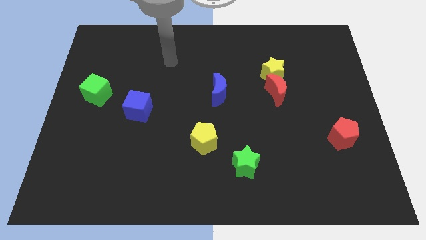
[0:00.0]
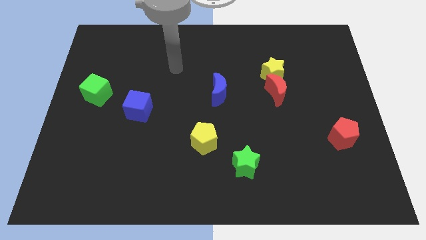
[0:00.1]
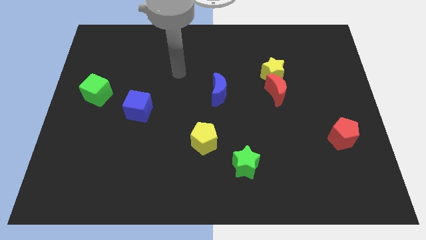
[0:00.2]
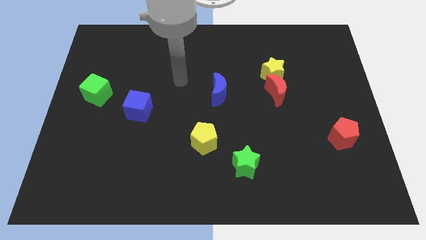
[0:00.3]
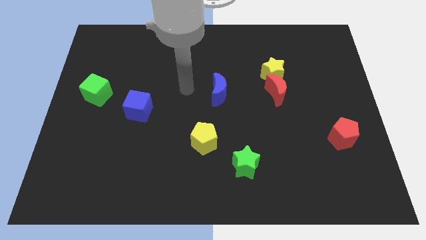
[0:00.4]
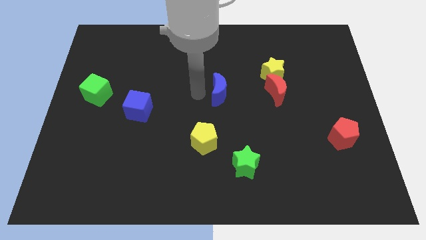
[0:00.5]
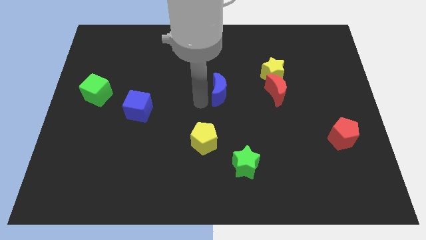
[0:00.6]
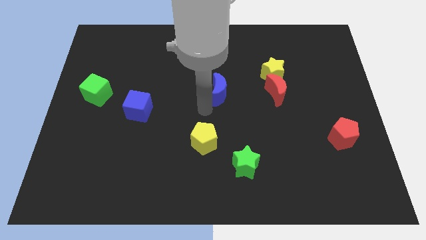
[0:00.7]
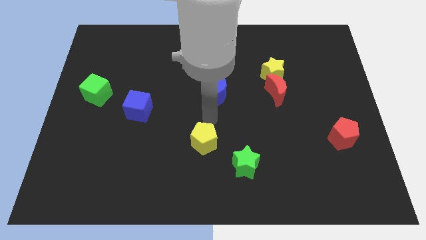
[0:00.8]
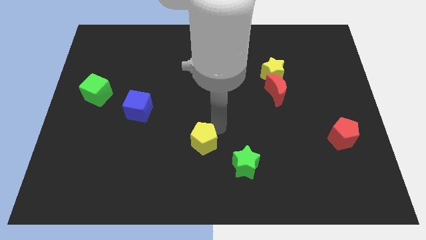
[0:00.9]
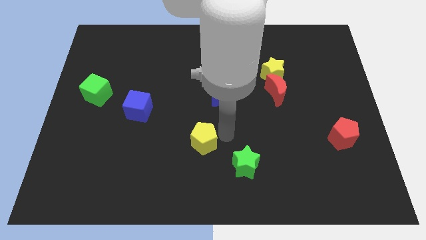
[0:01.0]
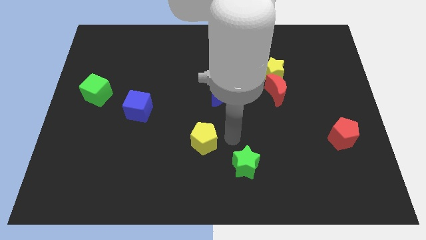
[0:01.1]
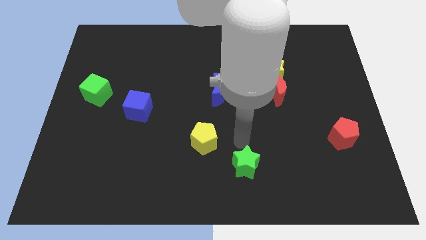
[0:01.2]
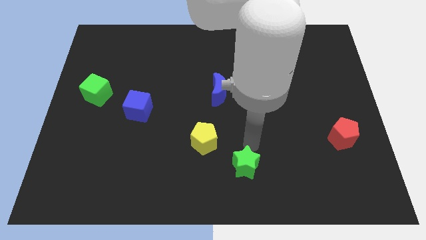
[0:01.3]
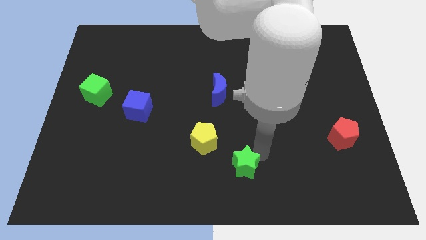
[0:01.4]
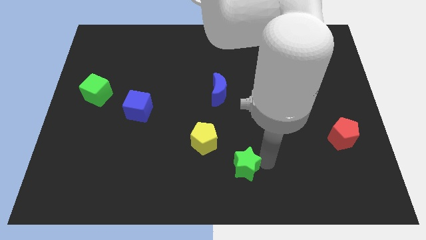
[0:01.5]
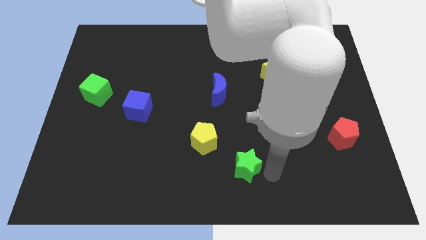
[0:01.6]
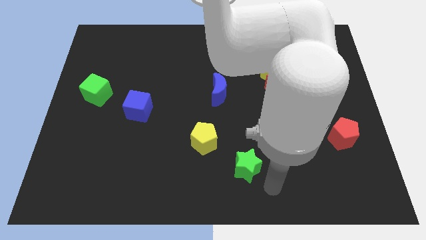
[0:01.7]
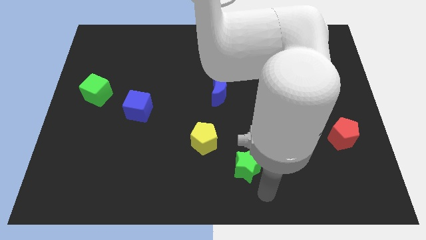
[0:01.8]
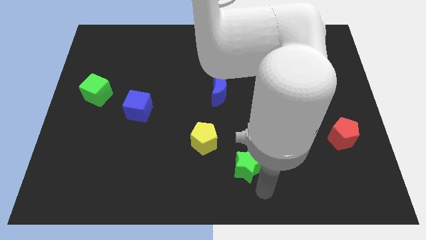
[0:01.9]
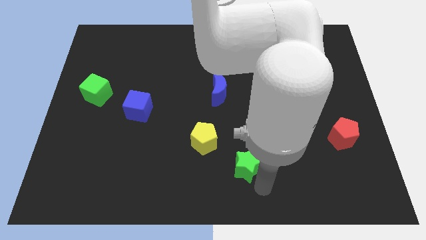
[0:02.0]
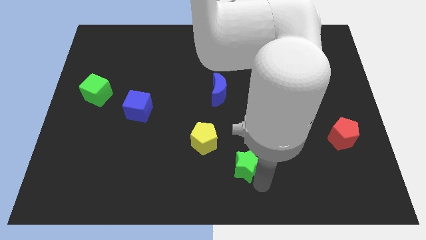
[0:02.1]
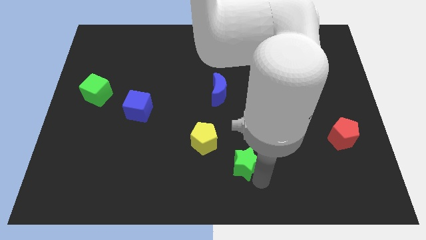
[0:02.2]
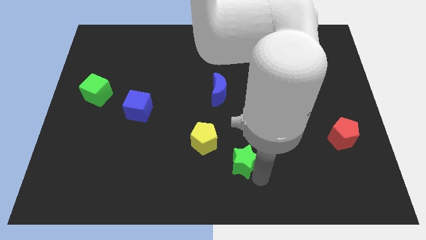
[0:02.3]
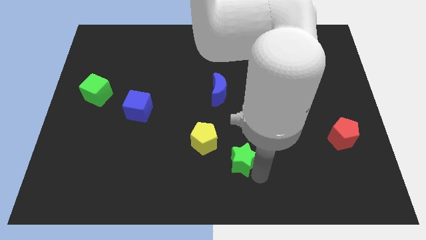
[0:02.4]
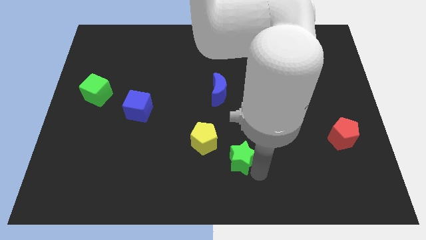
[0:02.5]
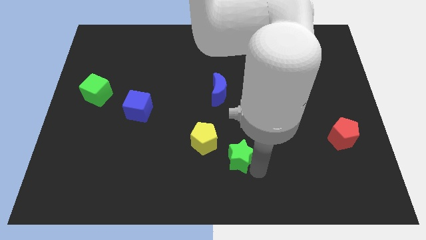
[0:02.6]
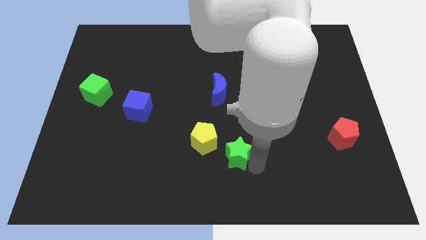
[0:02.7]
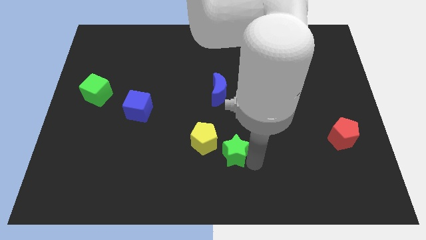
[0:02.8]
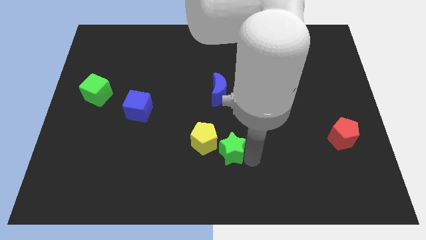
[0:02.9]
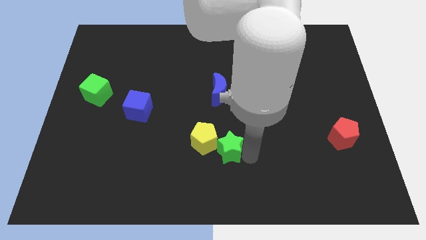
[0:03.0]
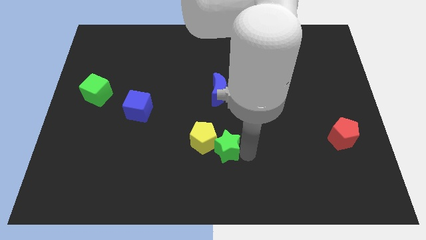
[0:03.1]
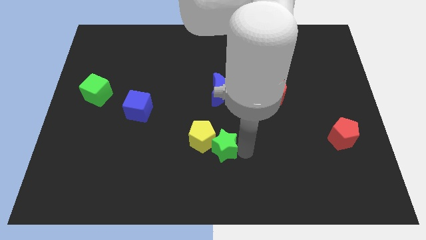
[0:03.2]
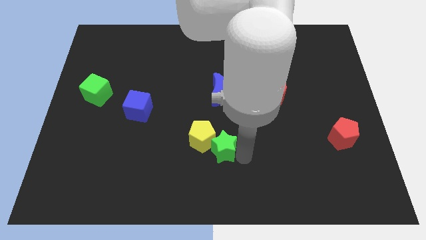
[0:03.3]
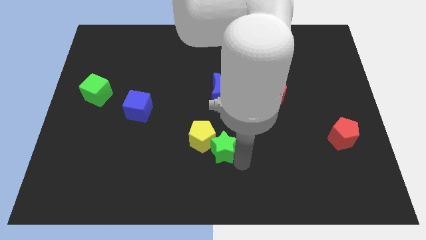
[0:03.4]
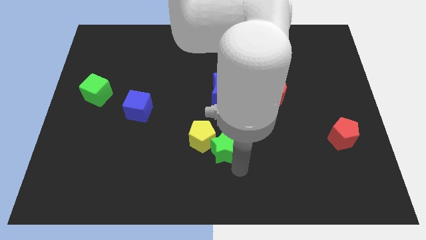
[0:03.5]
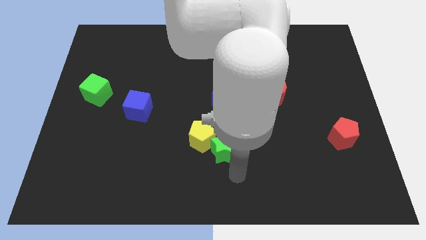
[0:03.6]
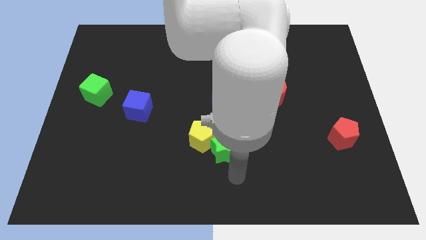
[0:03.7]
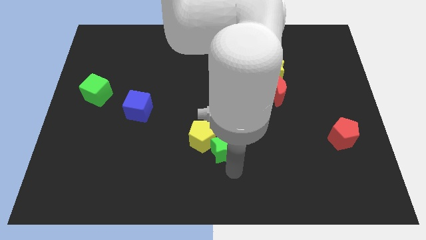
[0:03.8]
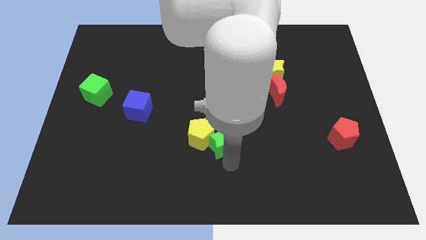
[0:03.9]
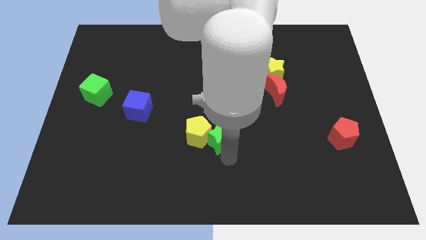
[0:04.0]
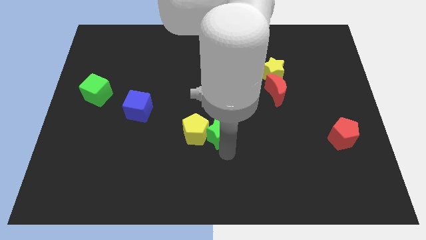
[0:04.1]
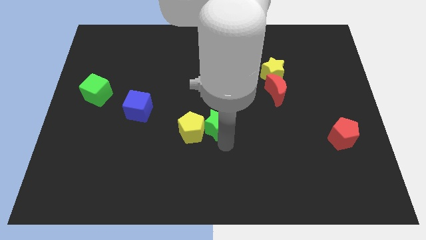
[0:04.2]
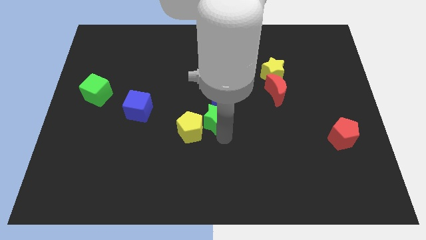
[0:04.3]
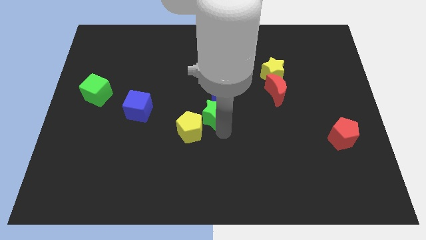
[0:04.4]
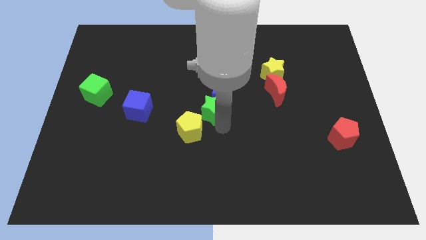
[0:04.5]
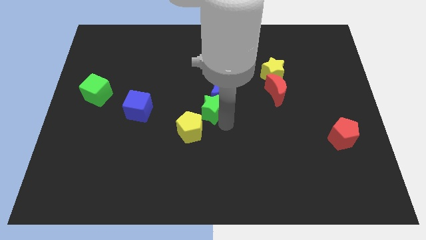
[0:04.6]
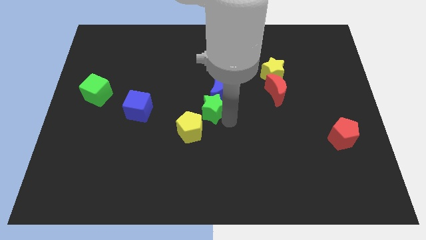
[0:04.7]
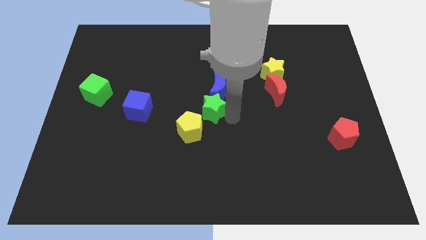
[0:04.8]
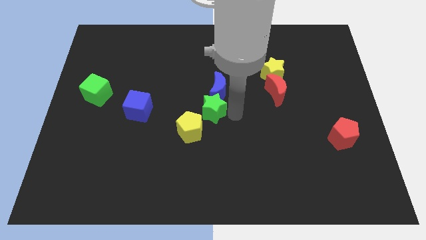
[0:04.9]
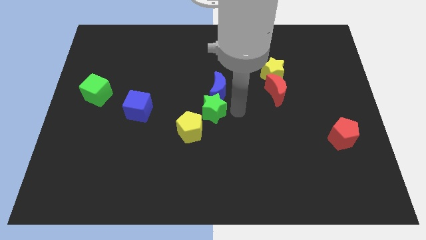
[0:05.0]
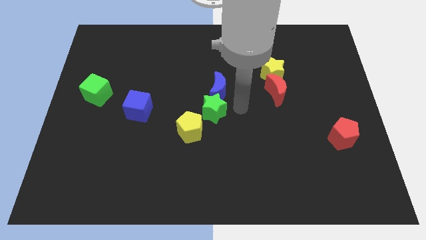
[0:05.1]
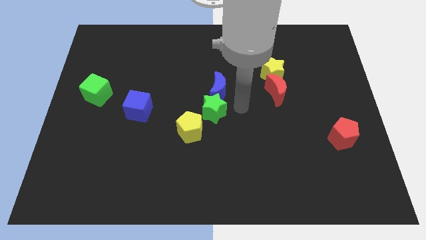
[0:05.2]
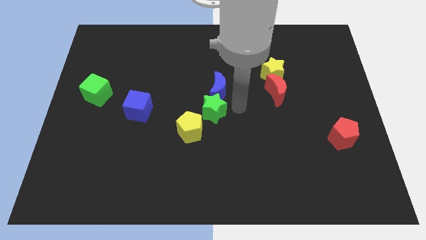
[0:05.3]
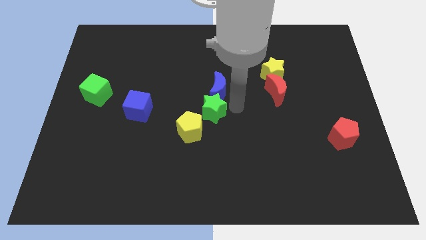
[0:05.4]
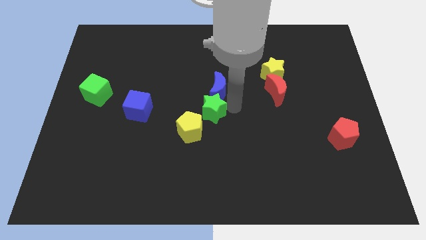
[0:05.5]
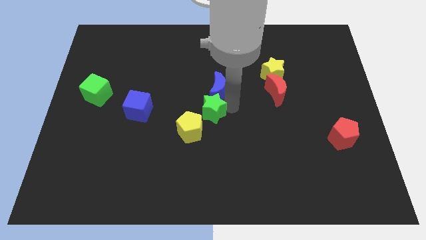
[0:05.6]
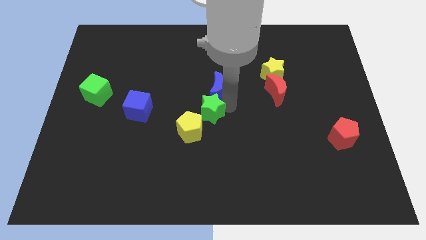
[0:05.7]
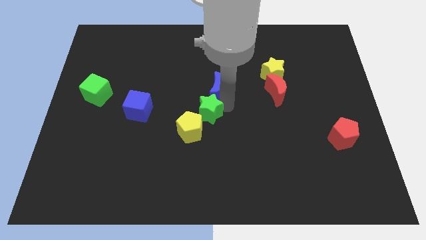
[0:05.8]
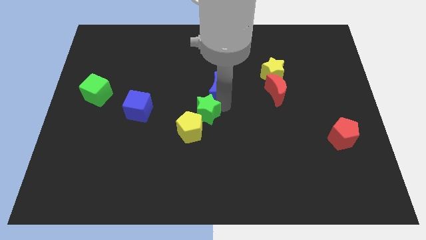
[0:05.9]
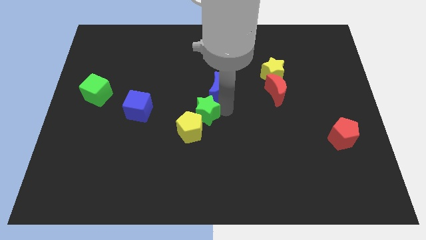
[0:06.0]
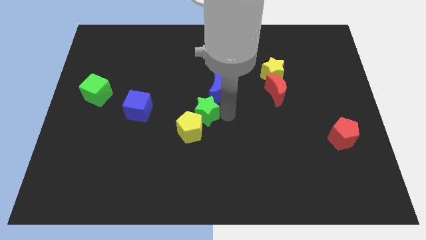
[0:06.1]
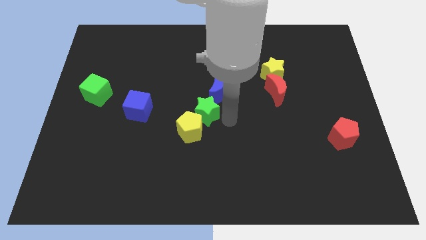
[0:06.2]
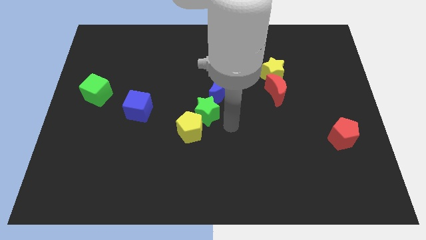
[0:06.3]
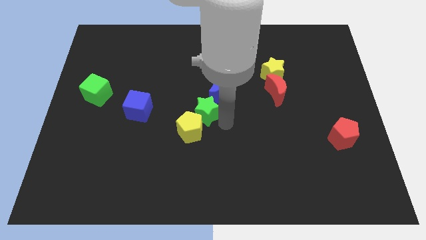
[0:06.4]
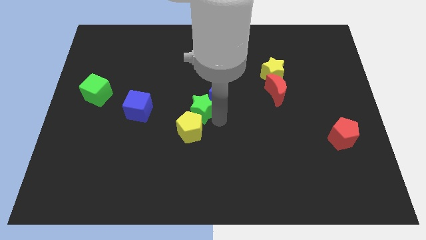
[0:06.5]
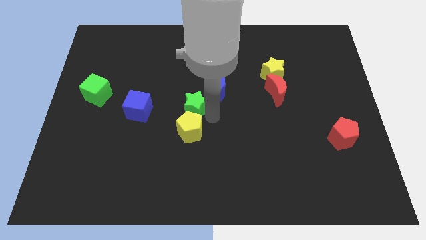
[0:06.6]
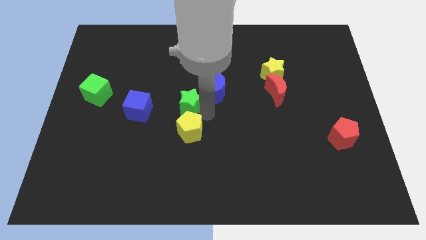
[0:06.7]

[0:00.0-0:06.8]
slide the green star up and left diagonally

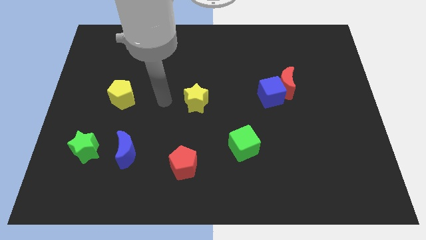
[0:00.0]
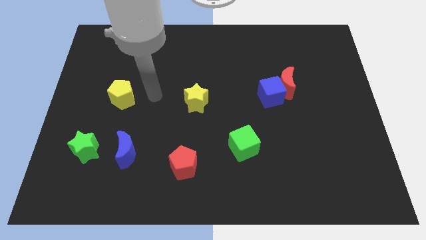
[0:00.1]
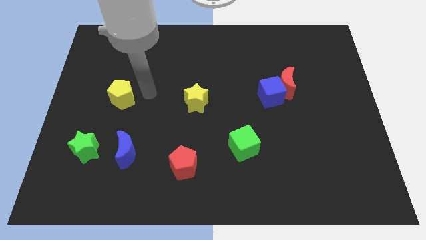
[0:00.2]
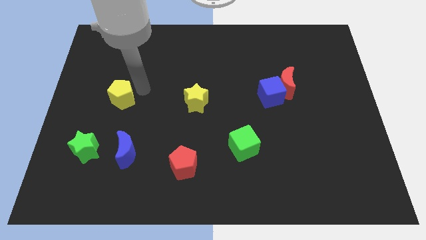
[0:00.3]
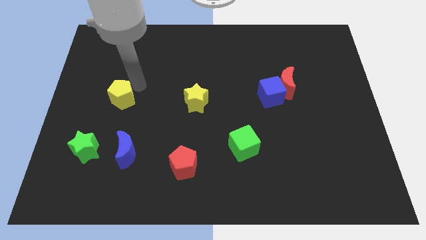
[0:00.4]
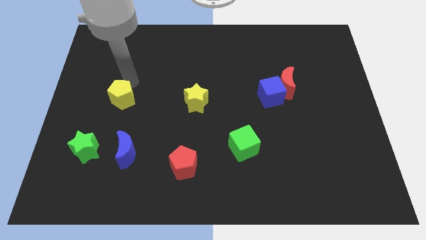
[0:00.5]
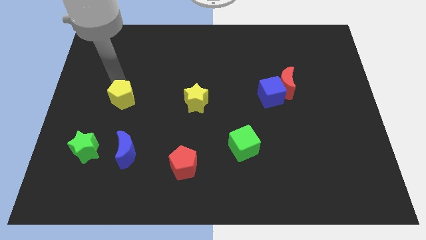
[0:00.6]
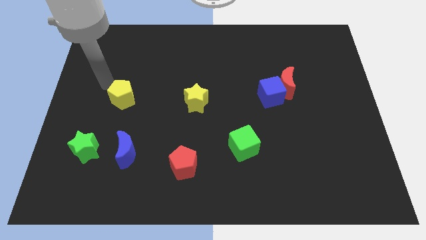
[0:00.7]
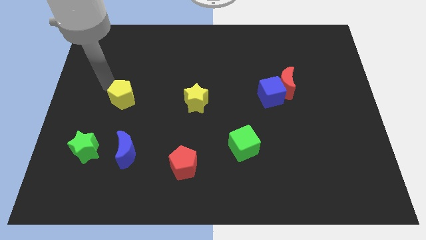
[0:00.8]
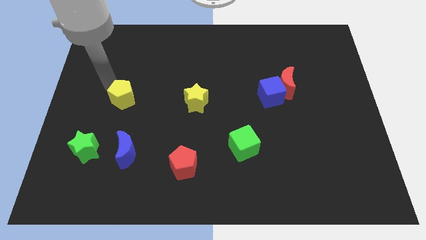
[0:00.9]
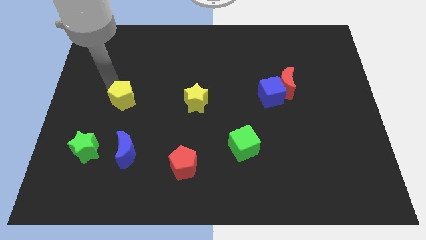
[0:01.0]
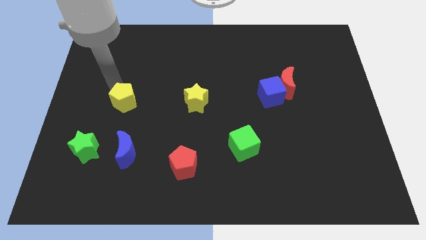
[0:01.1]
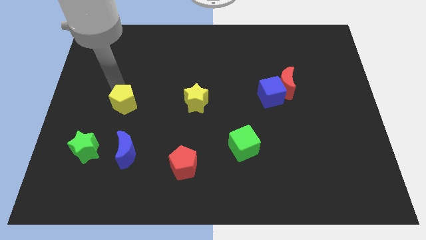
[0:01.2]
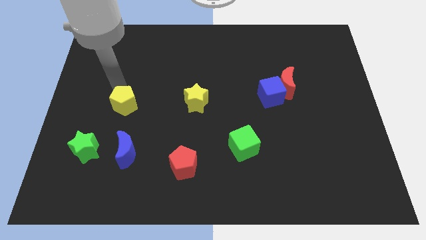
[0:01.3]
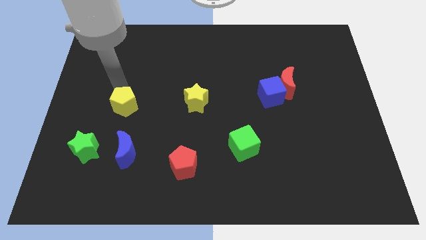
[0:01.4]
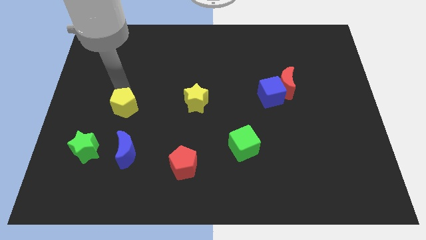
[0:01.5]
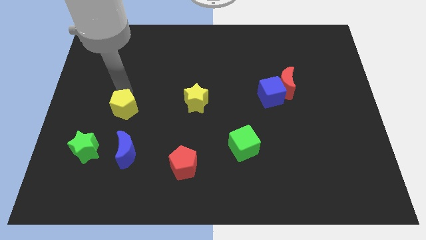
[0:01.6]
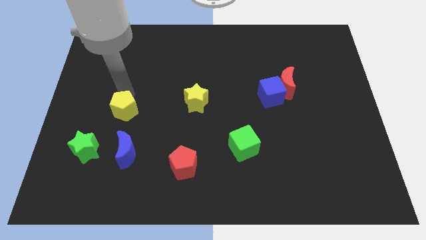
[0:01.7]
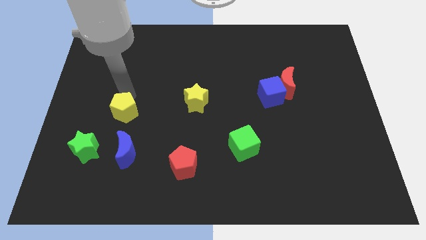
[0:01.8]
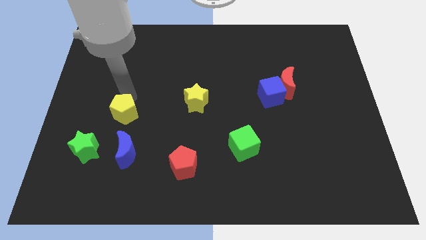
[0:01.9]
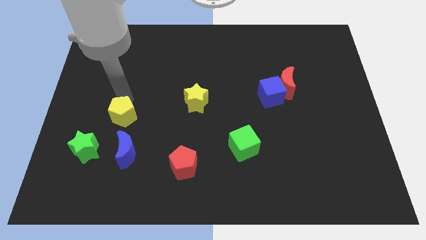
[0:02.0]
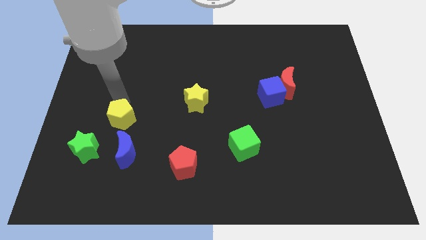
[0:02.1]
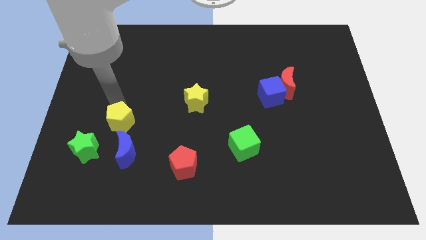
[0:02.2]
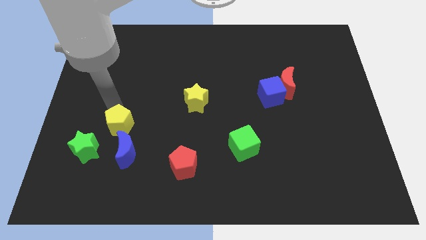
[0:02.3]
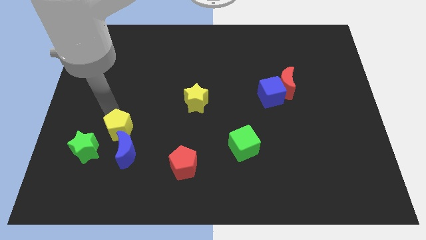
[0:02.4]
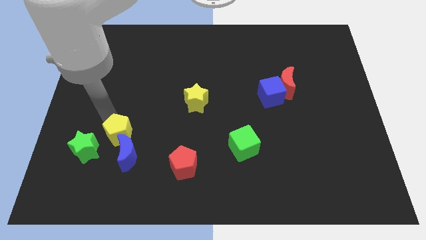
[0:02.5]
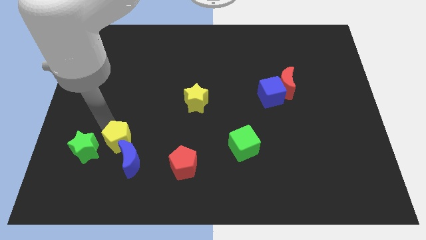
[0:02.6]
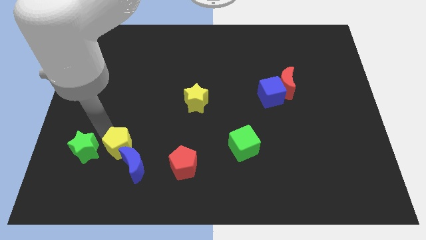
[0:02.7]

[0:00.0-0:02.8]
slide the yellow pentagon a little down and to the right diagonally
